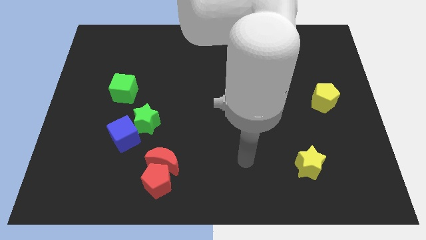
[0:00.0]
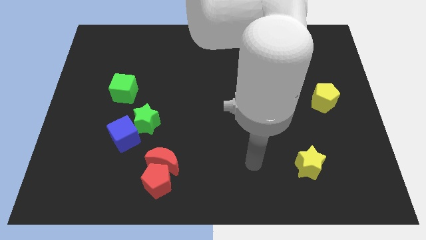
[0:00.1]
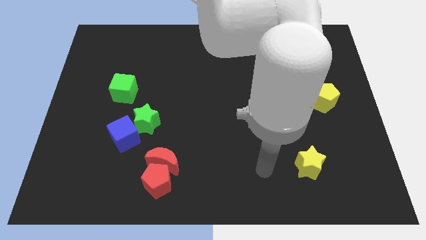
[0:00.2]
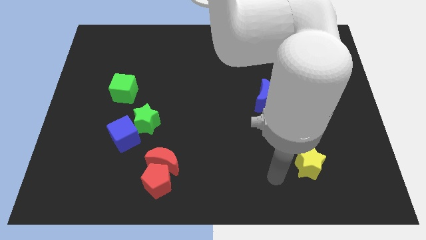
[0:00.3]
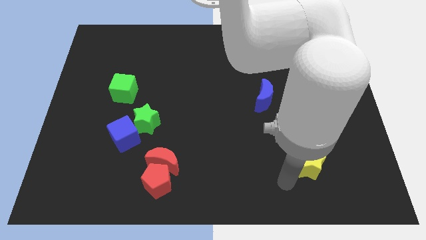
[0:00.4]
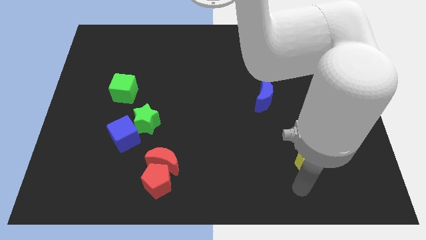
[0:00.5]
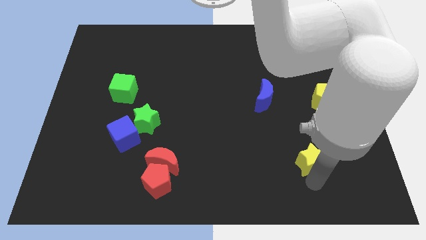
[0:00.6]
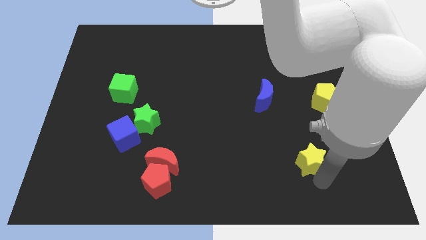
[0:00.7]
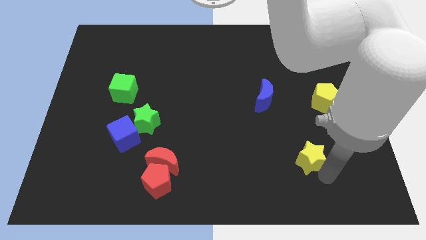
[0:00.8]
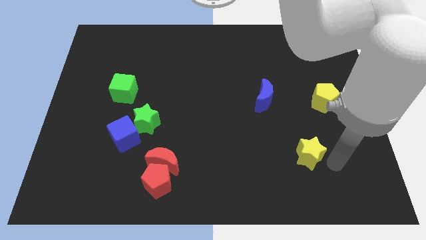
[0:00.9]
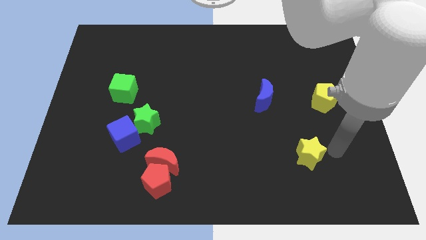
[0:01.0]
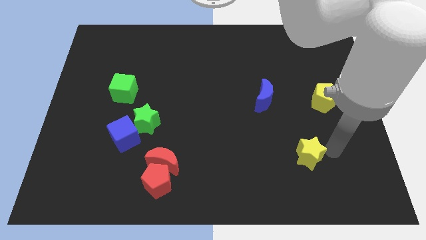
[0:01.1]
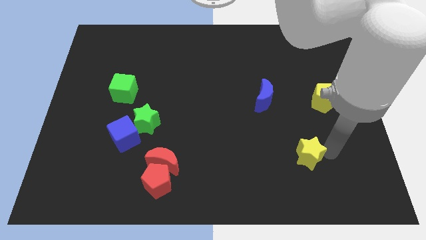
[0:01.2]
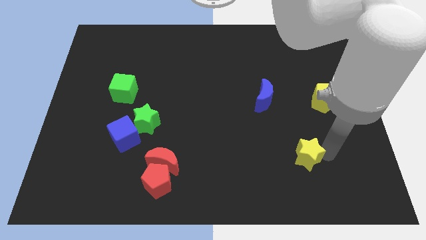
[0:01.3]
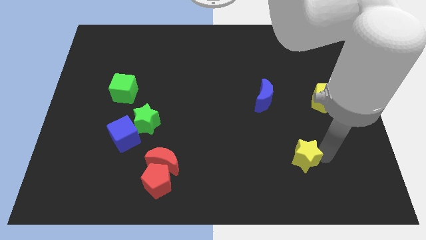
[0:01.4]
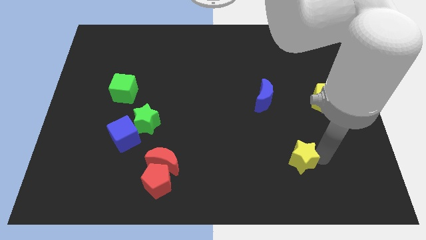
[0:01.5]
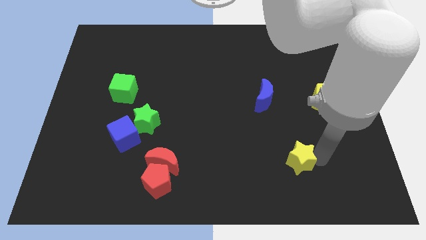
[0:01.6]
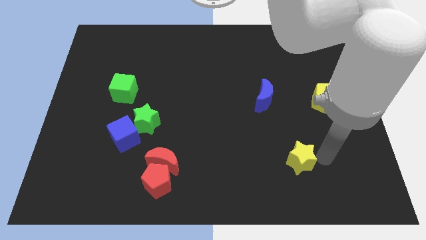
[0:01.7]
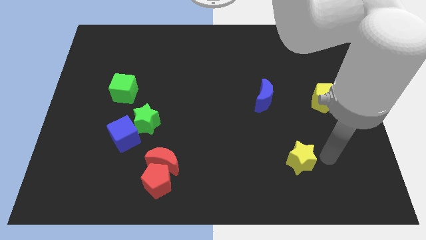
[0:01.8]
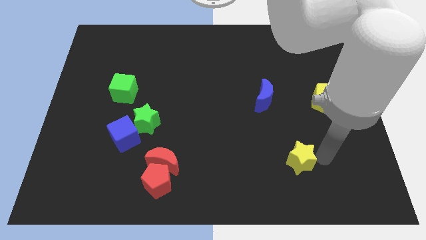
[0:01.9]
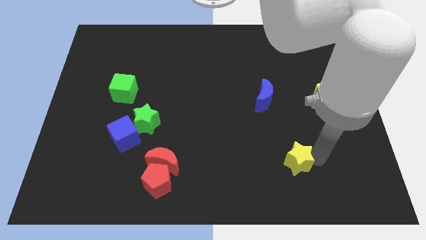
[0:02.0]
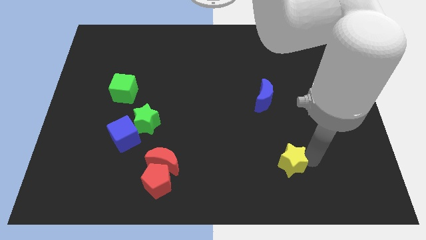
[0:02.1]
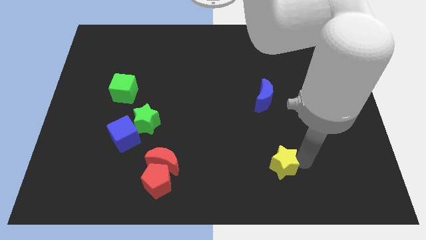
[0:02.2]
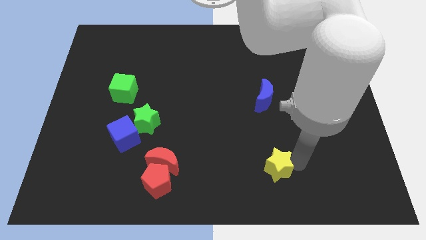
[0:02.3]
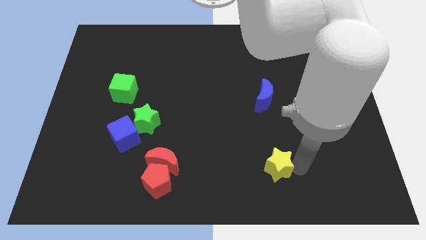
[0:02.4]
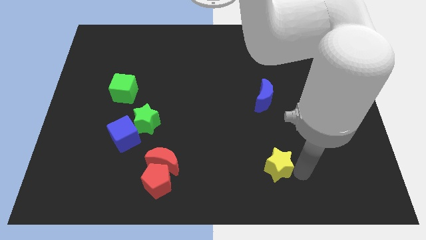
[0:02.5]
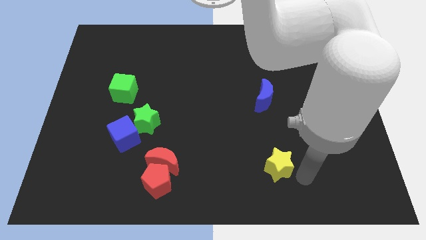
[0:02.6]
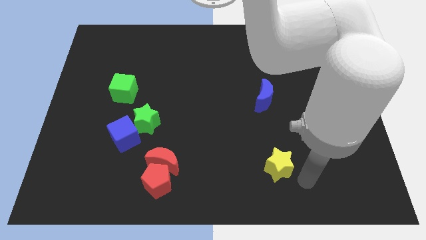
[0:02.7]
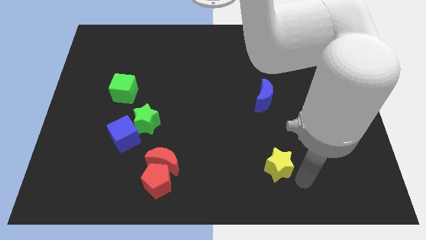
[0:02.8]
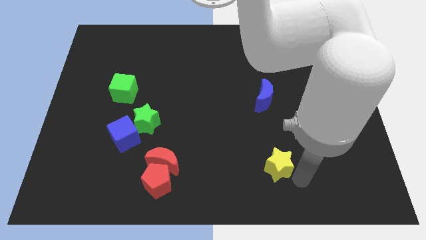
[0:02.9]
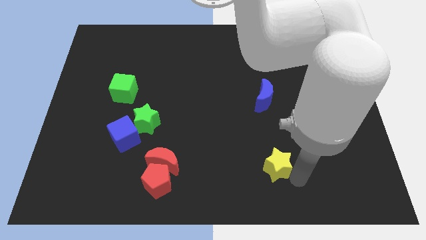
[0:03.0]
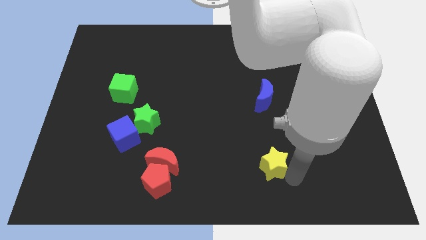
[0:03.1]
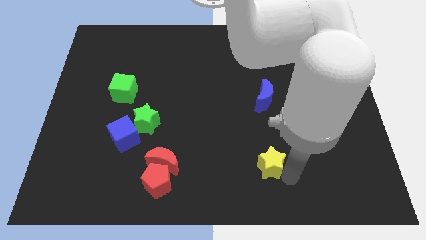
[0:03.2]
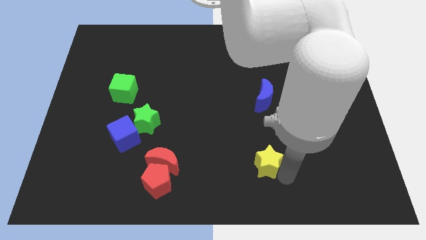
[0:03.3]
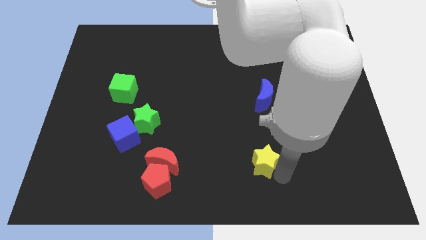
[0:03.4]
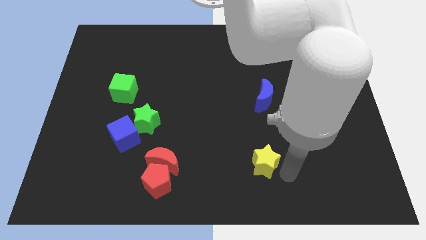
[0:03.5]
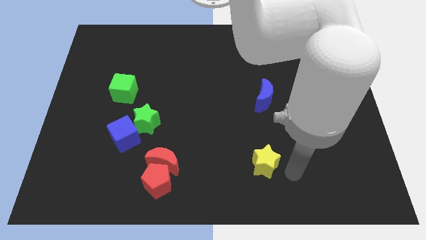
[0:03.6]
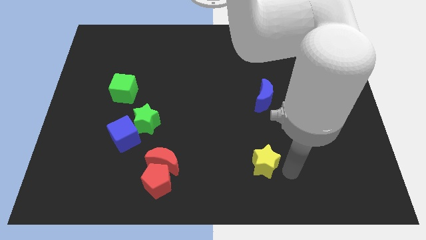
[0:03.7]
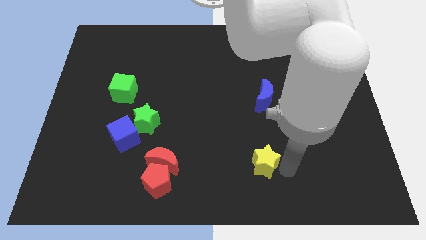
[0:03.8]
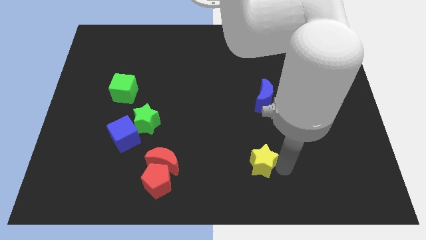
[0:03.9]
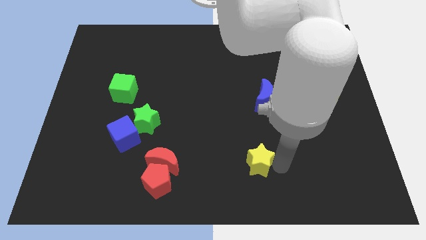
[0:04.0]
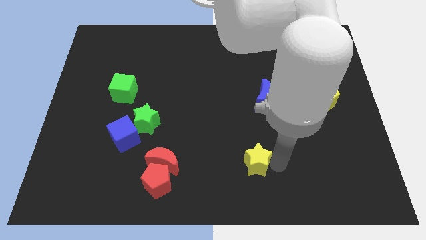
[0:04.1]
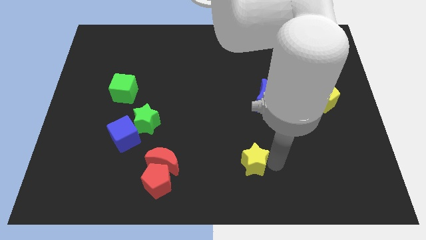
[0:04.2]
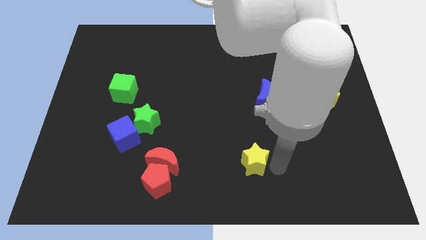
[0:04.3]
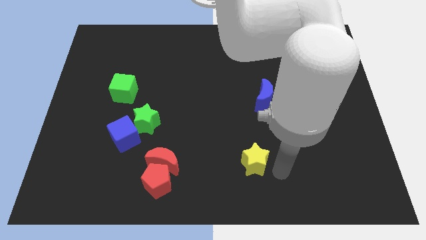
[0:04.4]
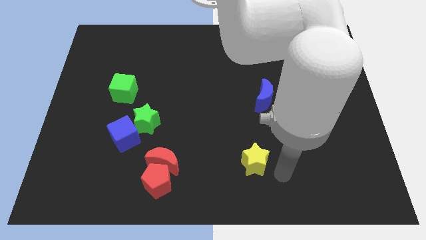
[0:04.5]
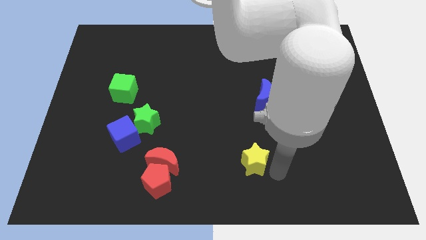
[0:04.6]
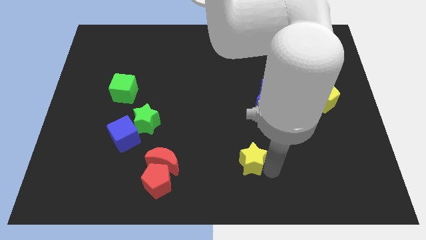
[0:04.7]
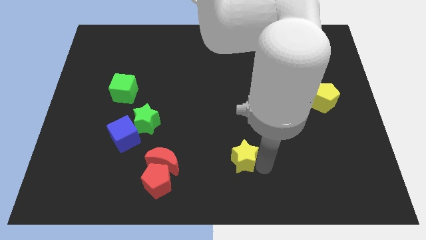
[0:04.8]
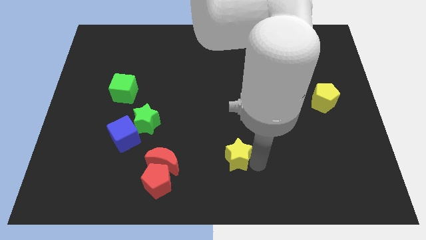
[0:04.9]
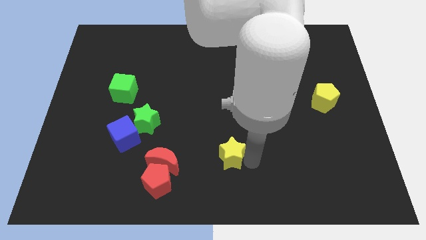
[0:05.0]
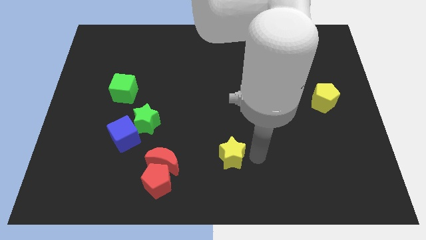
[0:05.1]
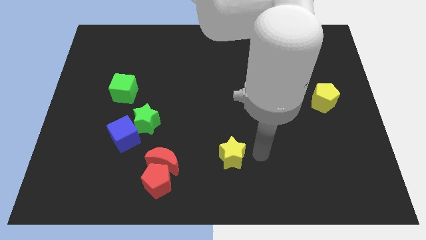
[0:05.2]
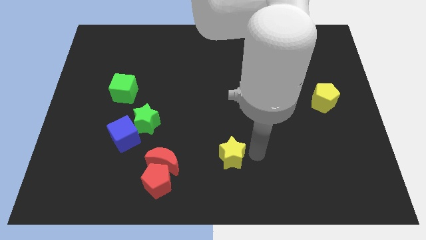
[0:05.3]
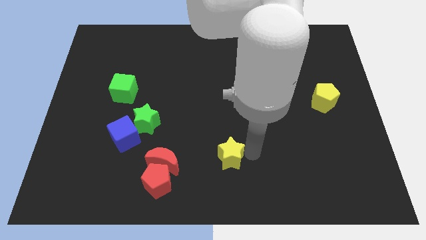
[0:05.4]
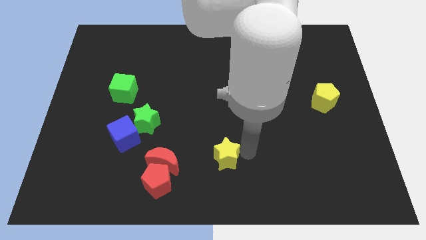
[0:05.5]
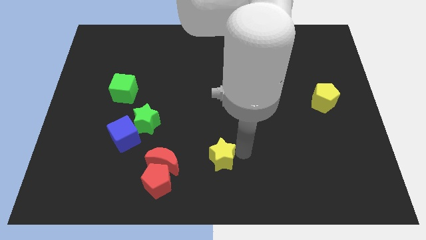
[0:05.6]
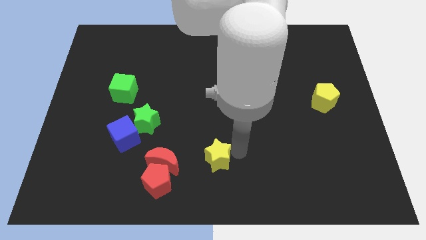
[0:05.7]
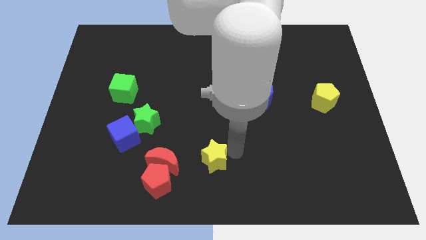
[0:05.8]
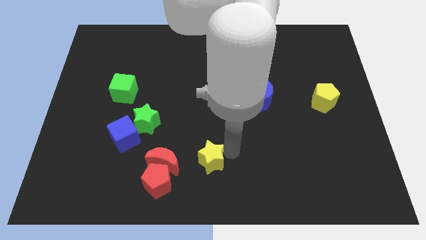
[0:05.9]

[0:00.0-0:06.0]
put the yellow star diagonally up and to the right of the red pentagon
